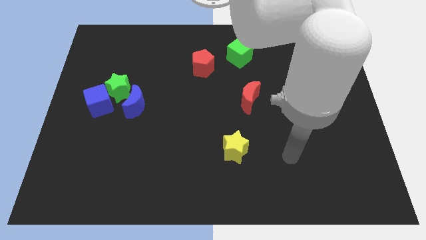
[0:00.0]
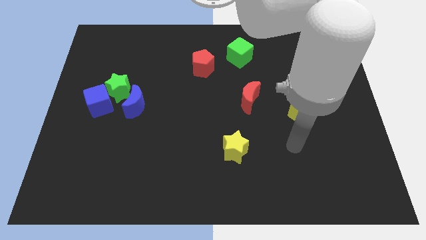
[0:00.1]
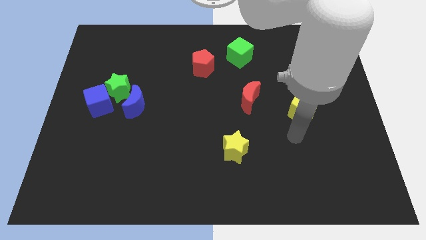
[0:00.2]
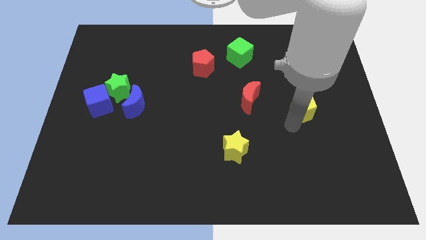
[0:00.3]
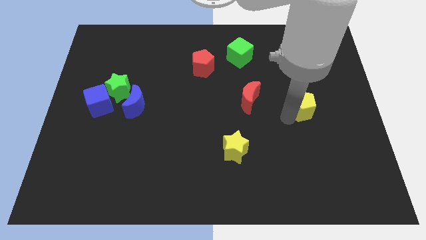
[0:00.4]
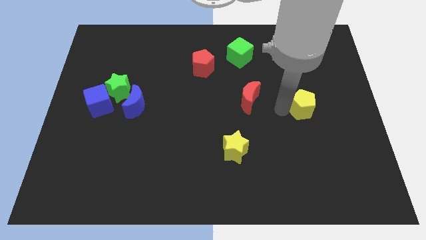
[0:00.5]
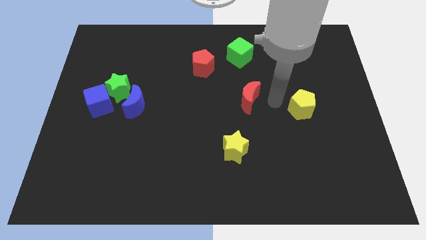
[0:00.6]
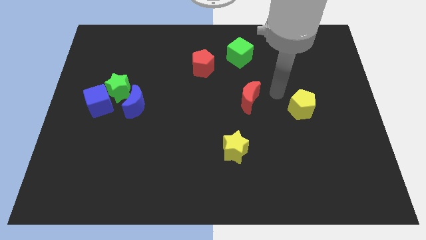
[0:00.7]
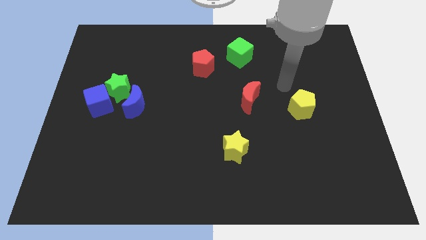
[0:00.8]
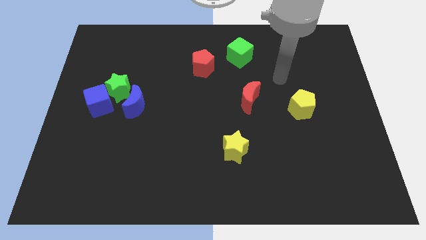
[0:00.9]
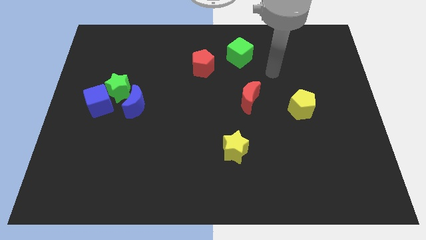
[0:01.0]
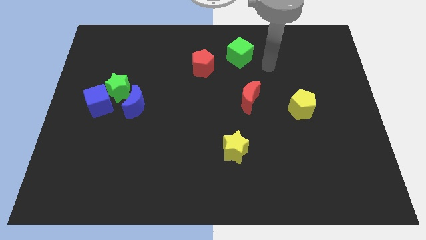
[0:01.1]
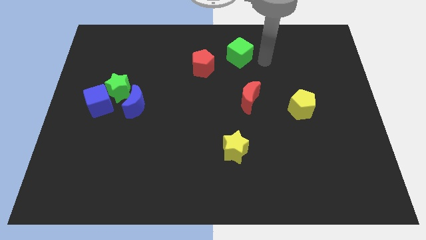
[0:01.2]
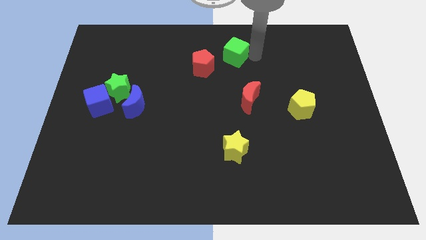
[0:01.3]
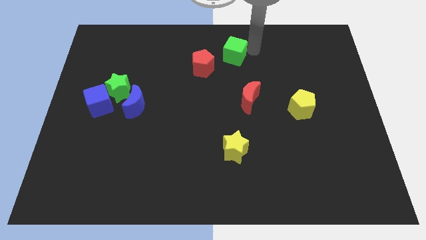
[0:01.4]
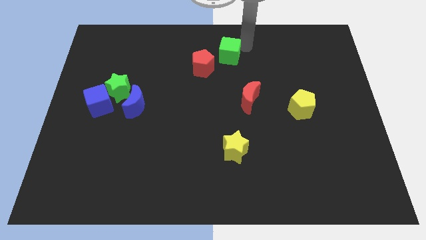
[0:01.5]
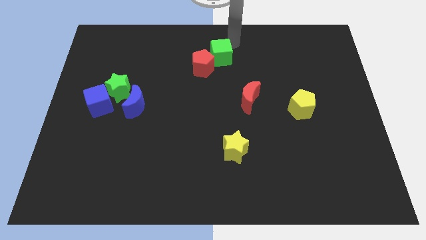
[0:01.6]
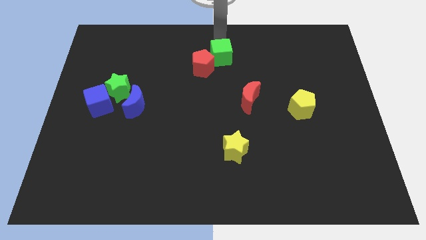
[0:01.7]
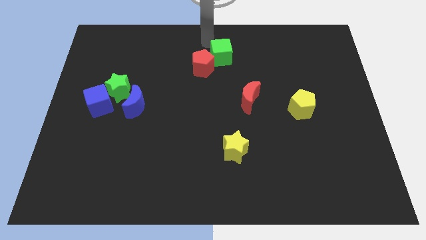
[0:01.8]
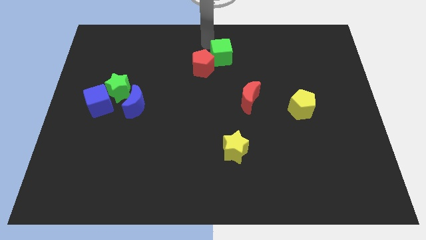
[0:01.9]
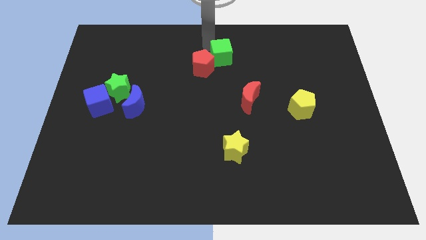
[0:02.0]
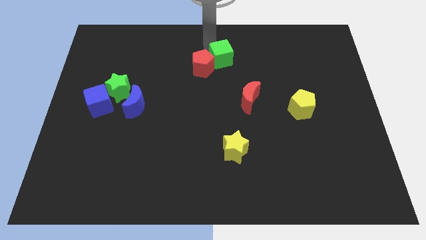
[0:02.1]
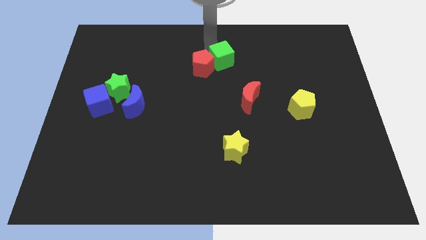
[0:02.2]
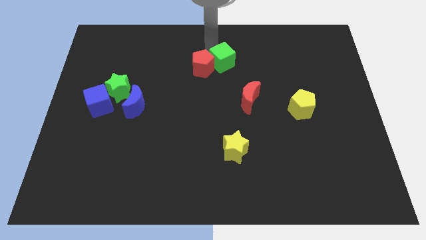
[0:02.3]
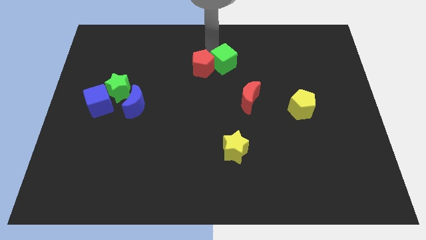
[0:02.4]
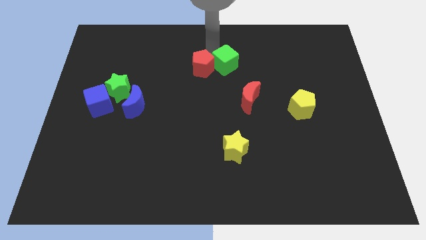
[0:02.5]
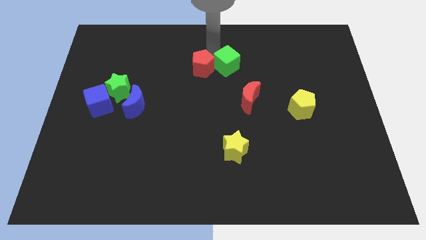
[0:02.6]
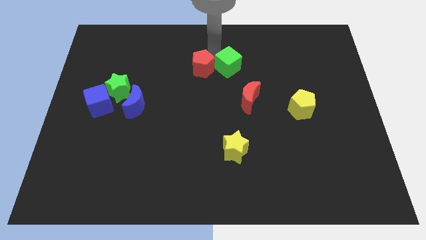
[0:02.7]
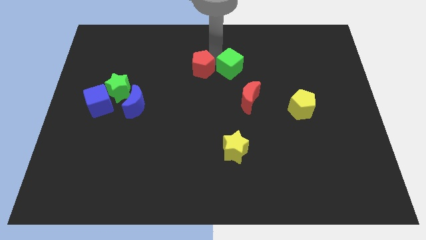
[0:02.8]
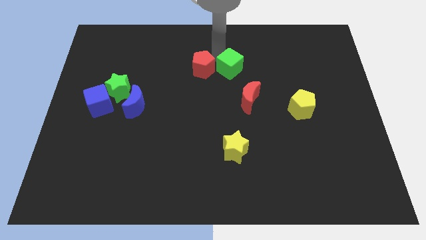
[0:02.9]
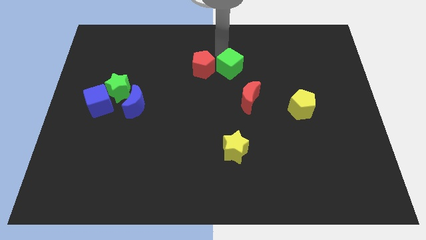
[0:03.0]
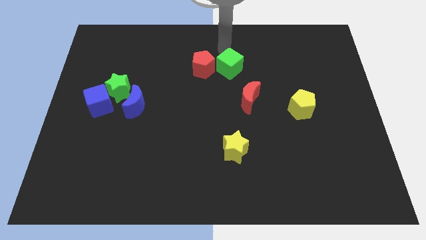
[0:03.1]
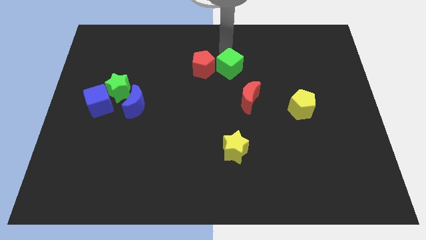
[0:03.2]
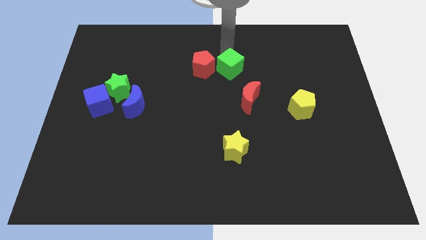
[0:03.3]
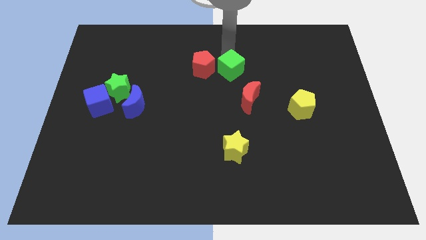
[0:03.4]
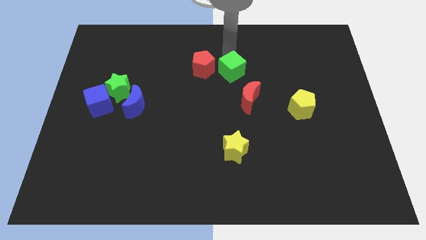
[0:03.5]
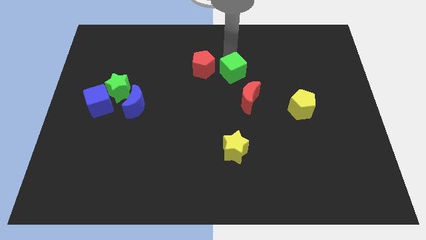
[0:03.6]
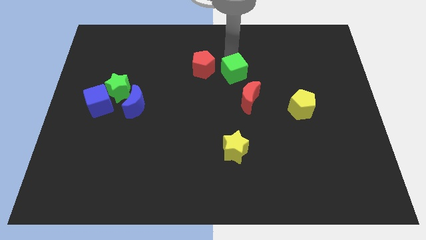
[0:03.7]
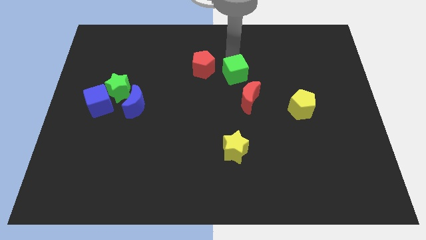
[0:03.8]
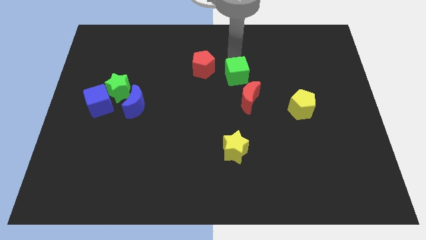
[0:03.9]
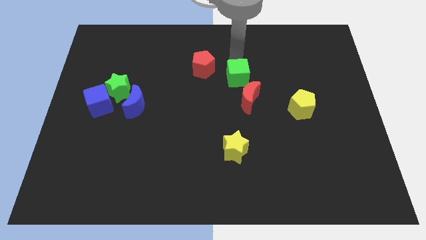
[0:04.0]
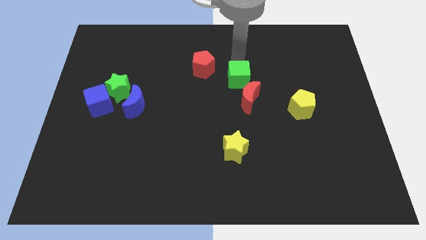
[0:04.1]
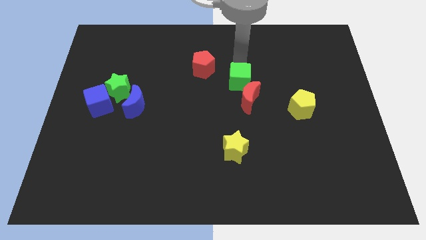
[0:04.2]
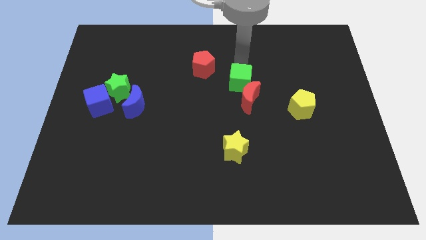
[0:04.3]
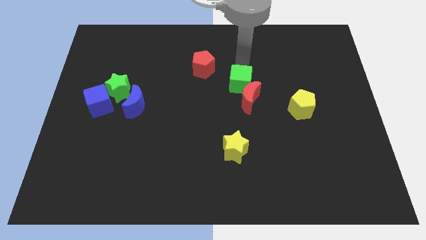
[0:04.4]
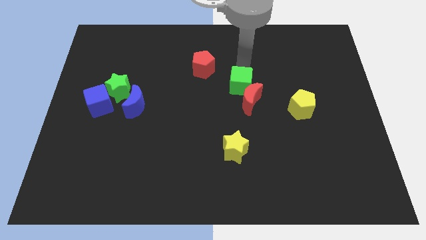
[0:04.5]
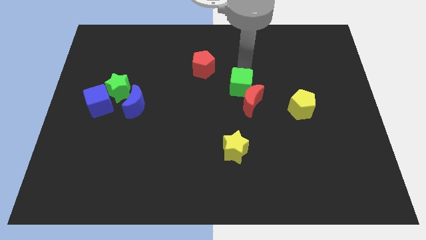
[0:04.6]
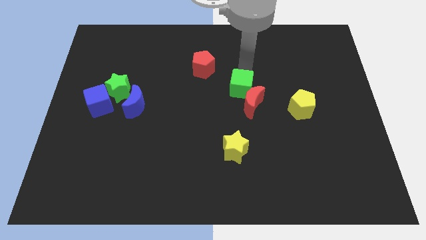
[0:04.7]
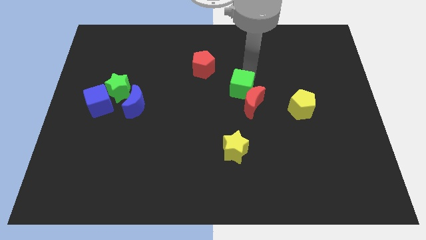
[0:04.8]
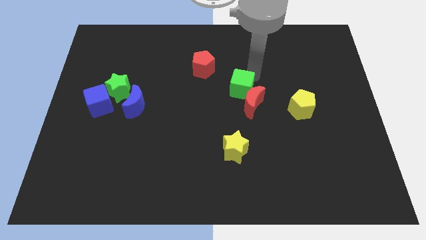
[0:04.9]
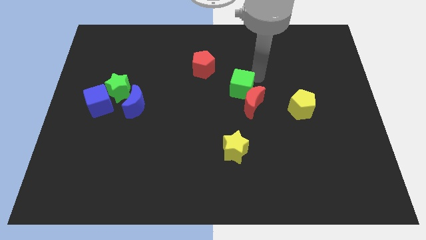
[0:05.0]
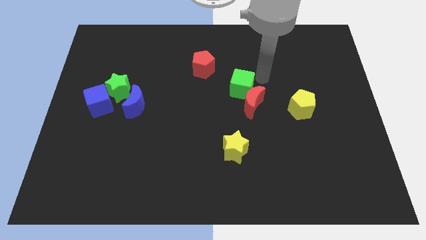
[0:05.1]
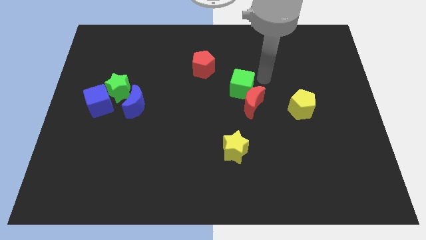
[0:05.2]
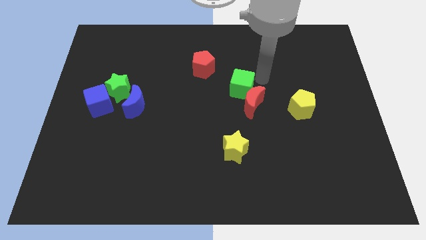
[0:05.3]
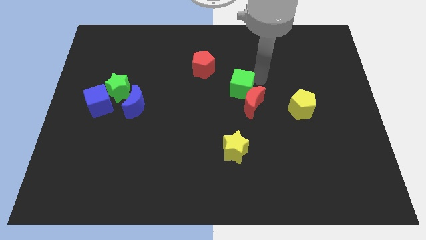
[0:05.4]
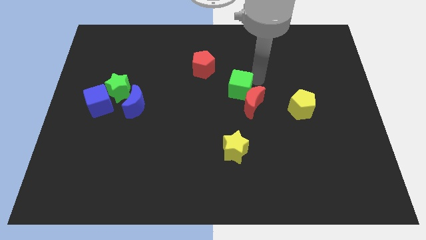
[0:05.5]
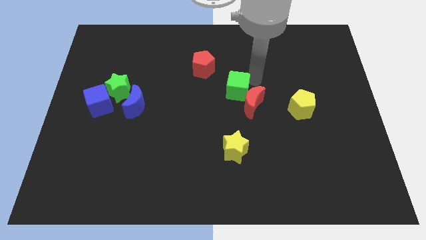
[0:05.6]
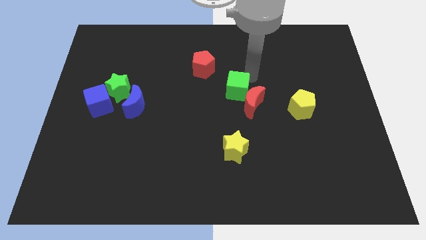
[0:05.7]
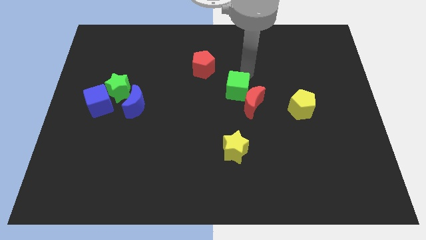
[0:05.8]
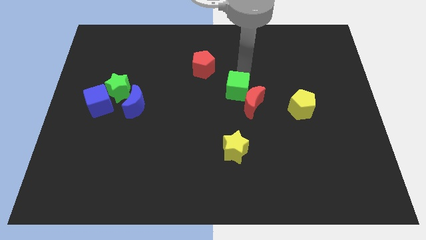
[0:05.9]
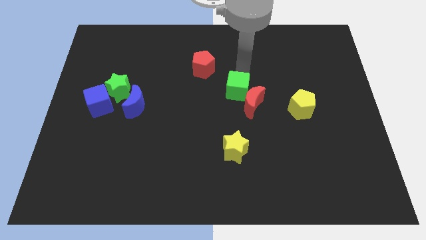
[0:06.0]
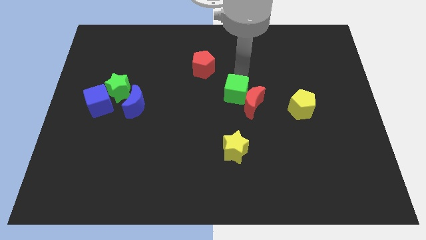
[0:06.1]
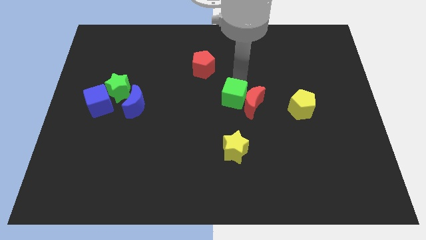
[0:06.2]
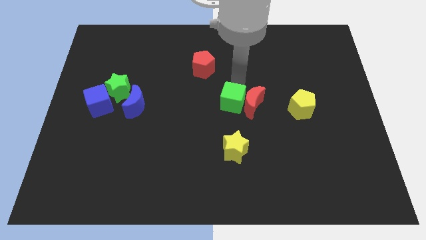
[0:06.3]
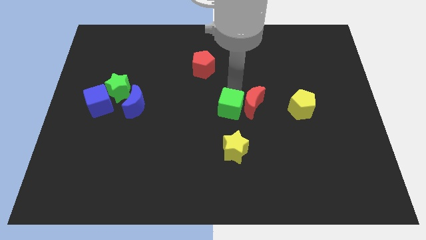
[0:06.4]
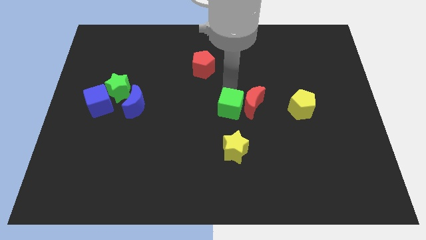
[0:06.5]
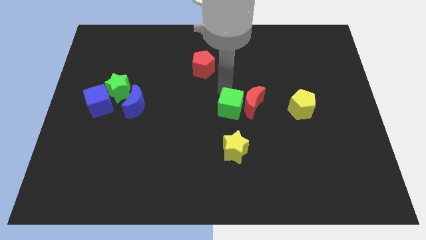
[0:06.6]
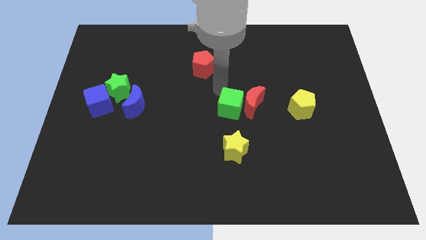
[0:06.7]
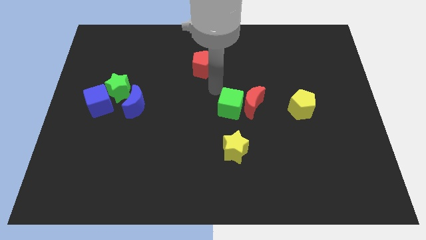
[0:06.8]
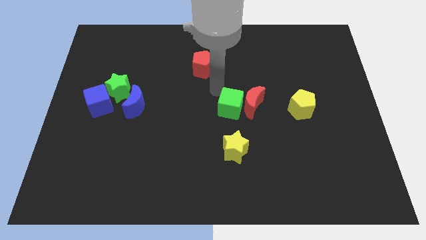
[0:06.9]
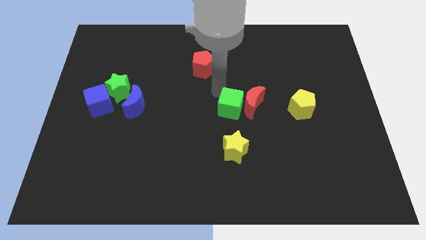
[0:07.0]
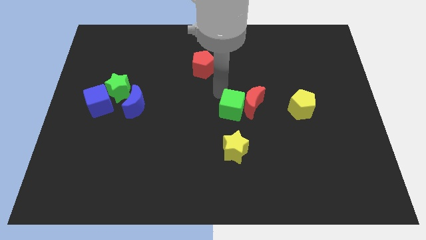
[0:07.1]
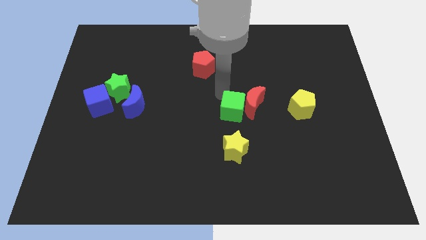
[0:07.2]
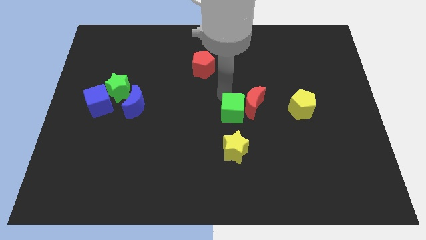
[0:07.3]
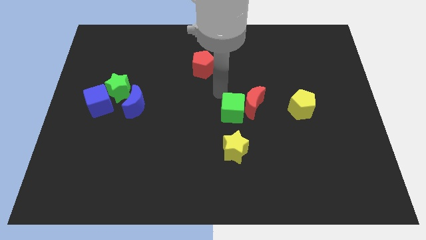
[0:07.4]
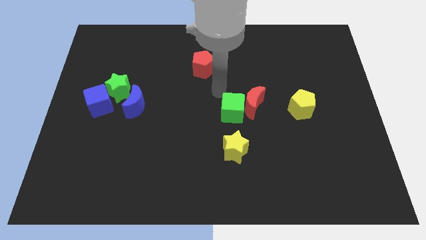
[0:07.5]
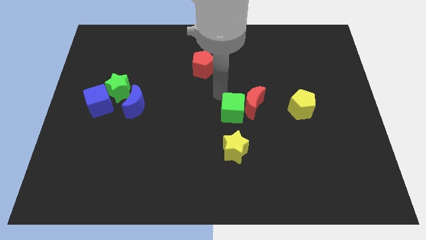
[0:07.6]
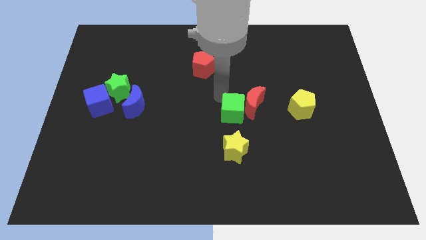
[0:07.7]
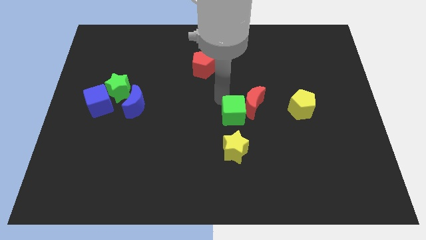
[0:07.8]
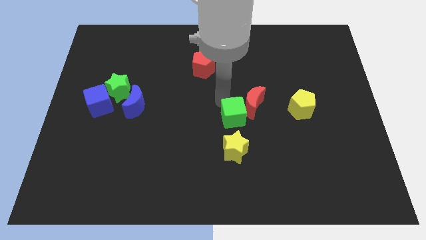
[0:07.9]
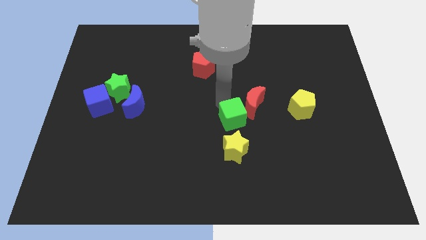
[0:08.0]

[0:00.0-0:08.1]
move the green cube down

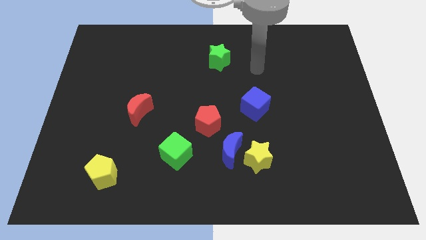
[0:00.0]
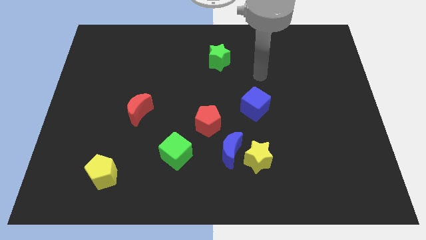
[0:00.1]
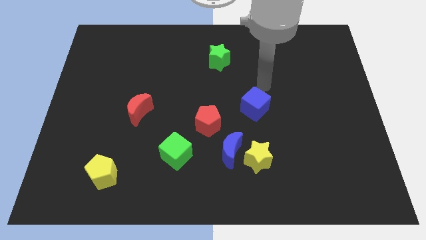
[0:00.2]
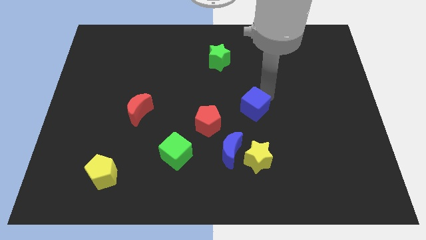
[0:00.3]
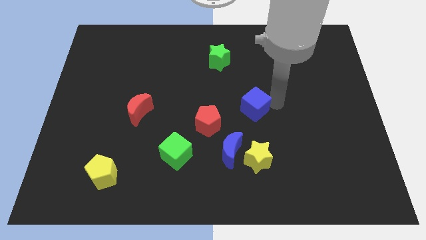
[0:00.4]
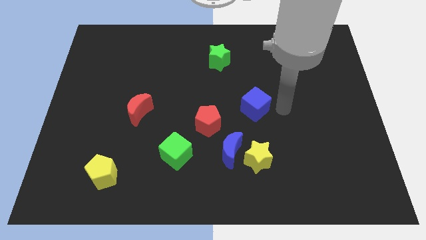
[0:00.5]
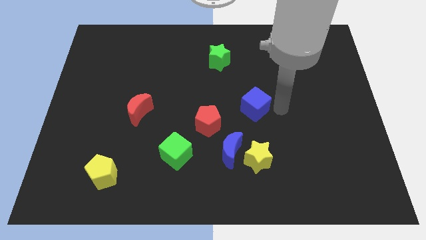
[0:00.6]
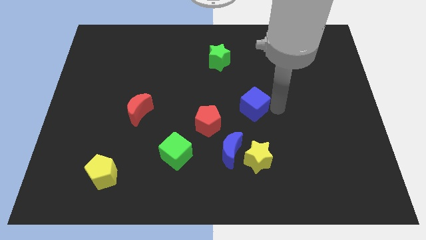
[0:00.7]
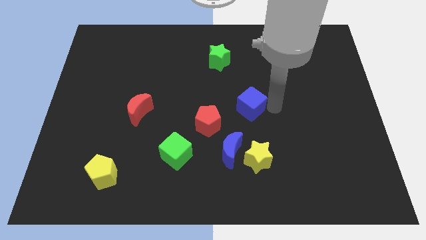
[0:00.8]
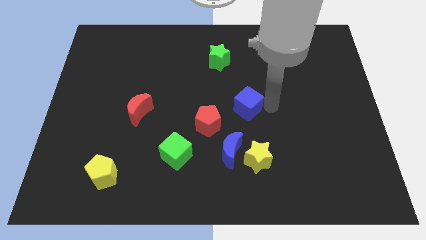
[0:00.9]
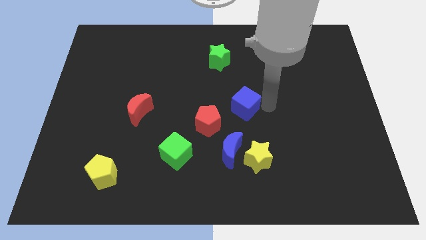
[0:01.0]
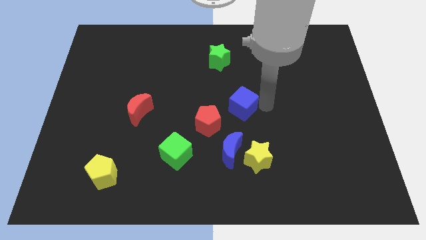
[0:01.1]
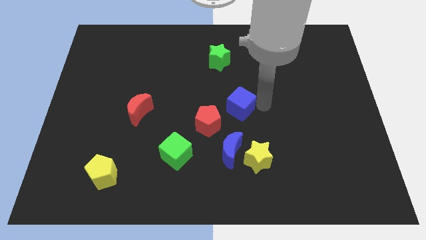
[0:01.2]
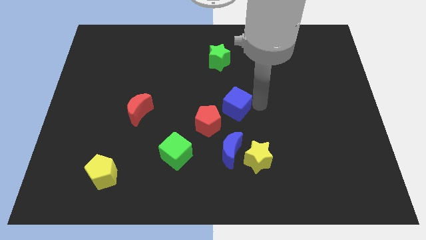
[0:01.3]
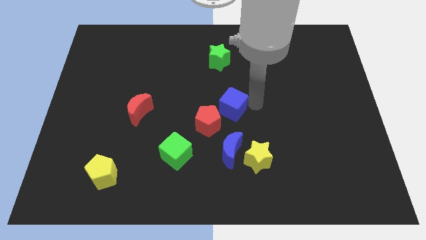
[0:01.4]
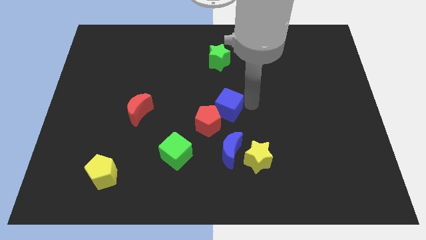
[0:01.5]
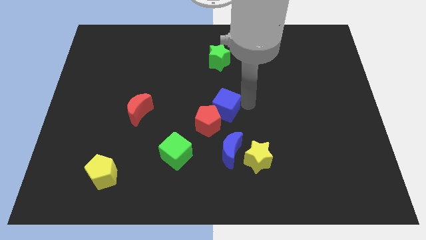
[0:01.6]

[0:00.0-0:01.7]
move the blue cube to the left a bit
